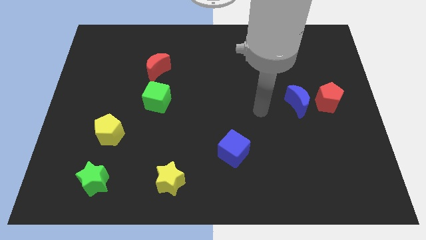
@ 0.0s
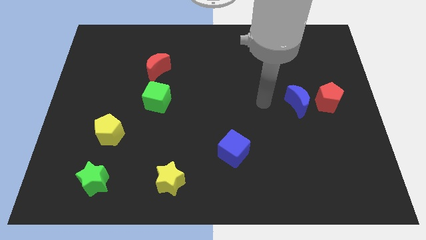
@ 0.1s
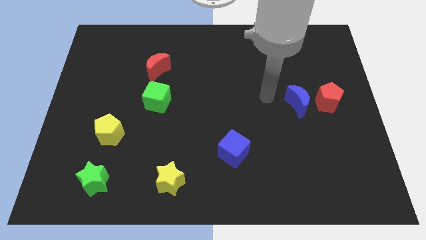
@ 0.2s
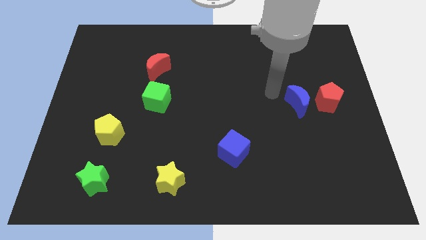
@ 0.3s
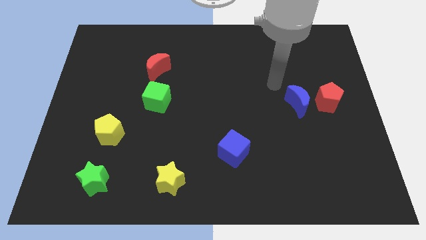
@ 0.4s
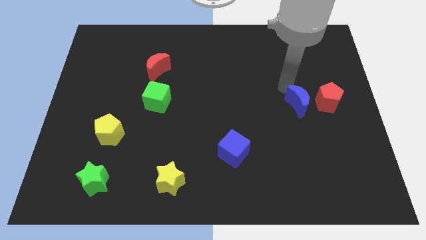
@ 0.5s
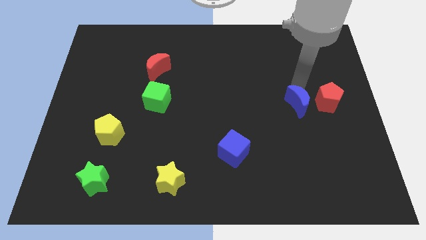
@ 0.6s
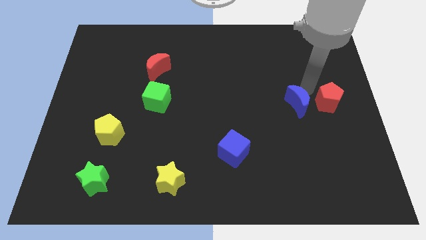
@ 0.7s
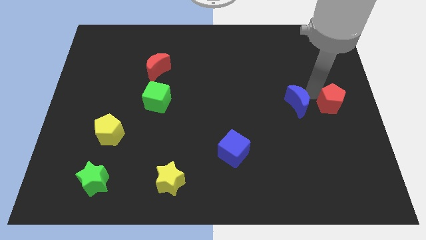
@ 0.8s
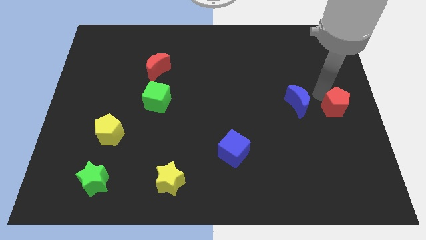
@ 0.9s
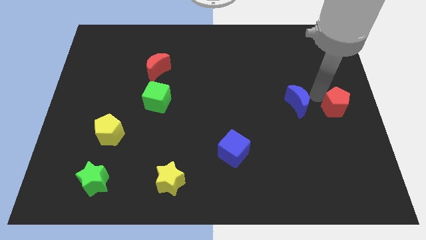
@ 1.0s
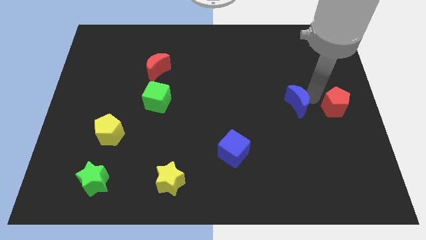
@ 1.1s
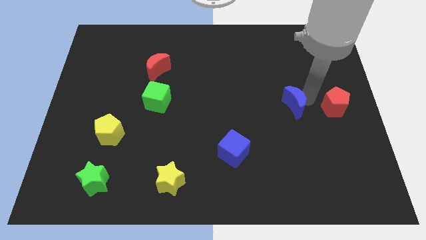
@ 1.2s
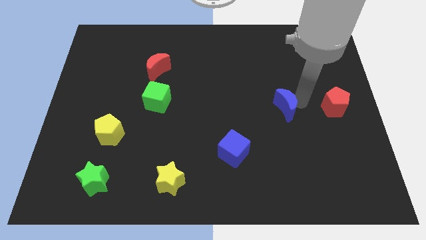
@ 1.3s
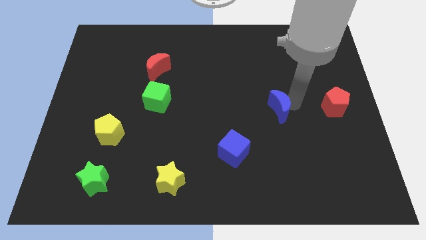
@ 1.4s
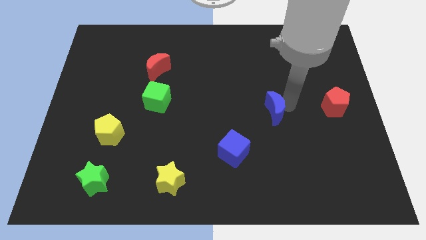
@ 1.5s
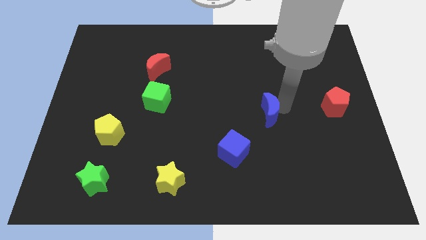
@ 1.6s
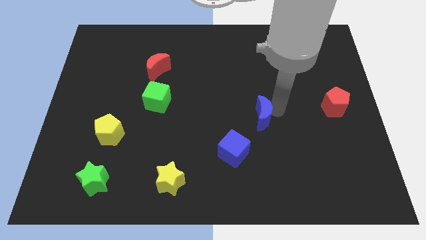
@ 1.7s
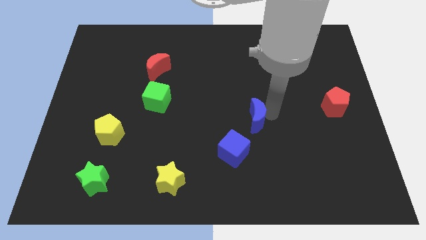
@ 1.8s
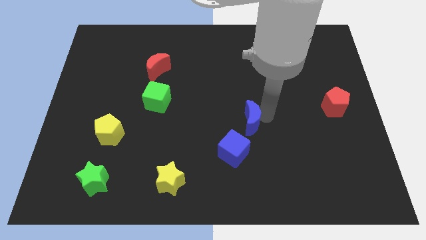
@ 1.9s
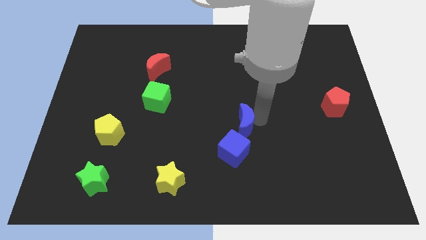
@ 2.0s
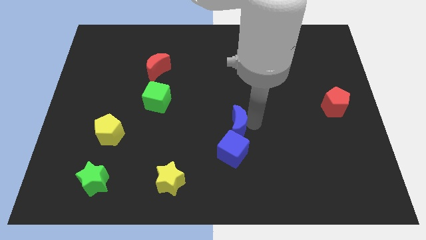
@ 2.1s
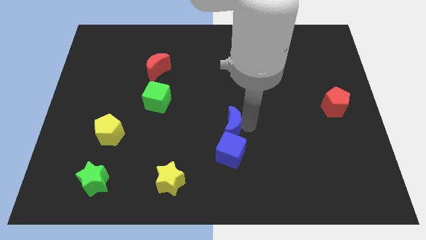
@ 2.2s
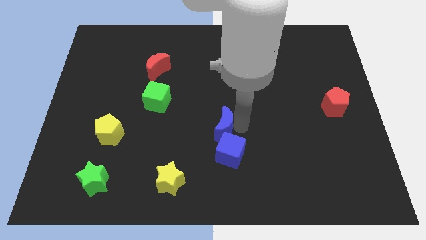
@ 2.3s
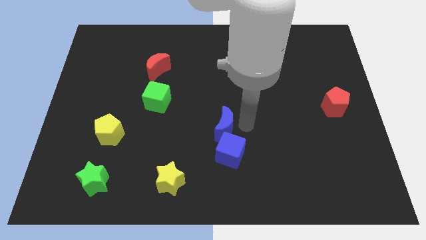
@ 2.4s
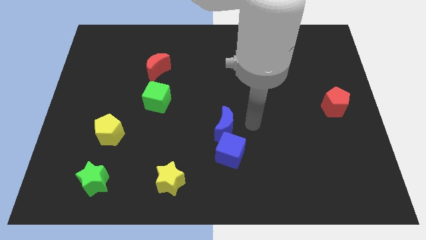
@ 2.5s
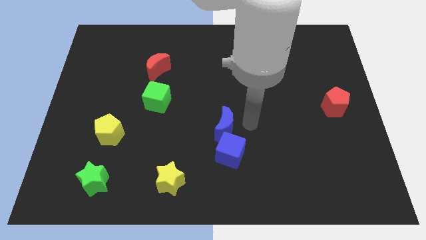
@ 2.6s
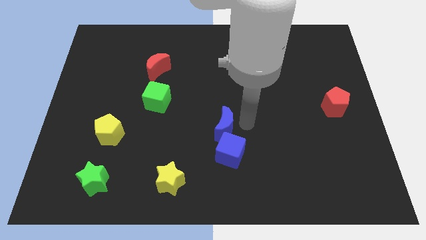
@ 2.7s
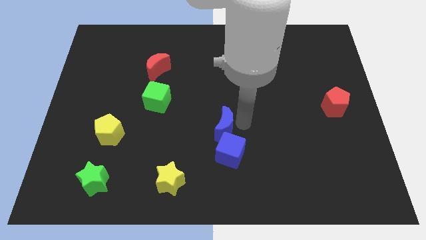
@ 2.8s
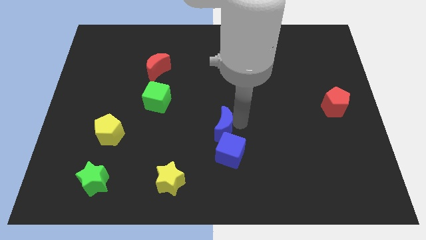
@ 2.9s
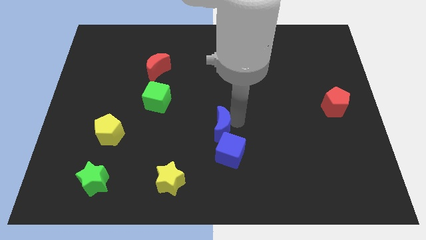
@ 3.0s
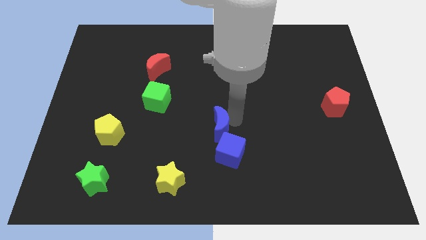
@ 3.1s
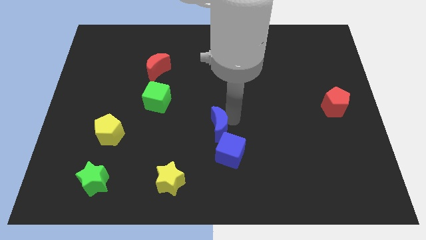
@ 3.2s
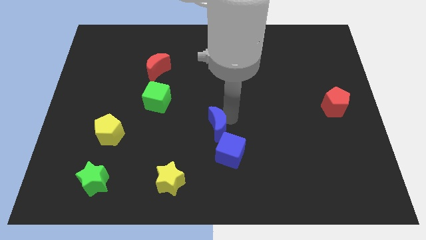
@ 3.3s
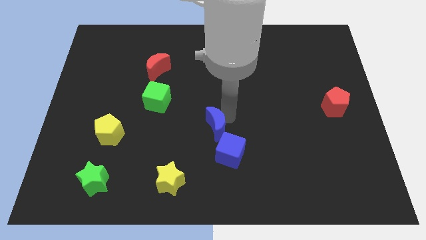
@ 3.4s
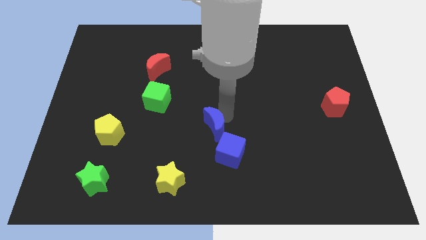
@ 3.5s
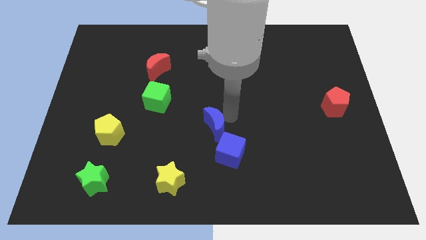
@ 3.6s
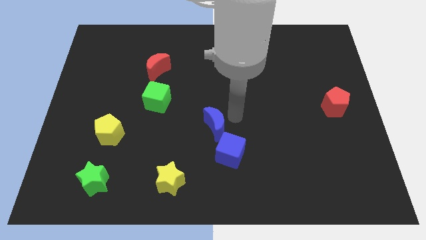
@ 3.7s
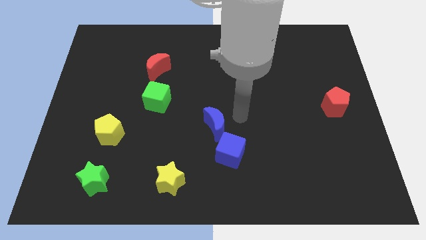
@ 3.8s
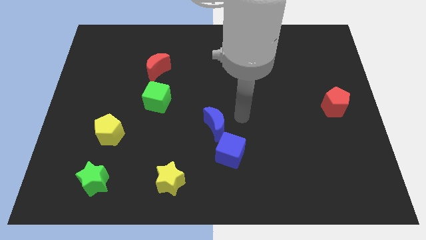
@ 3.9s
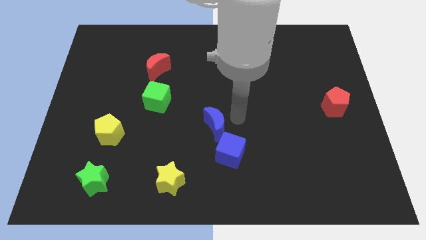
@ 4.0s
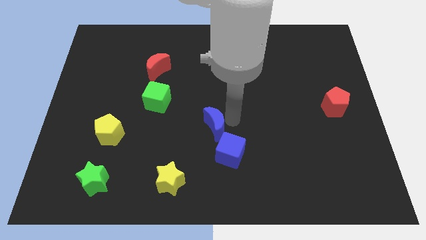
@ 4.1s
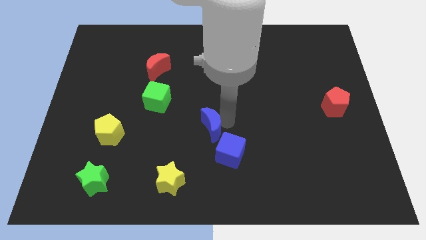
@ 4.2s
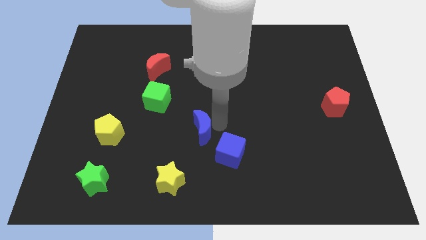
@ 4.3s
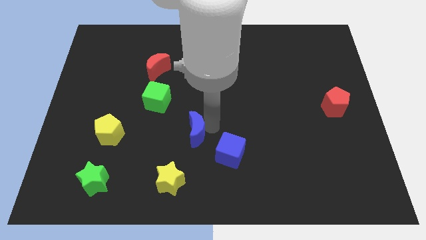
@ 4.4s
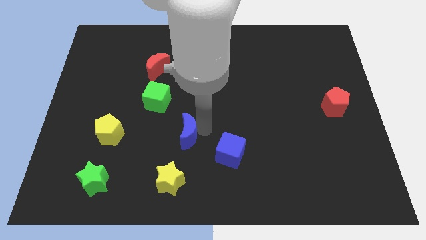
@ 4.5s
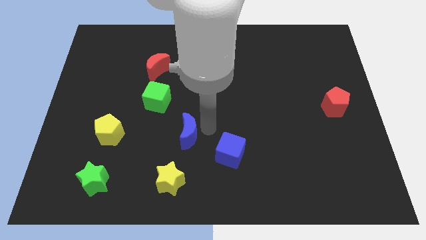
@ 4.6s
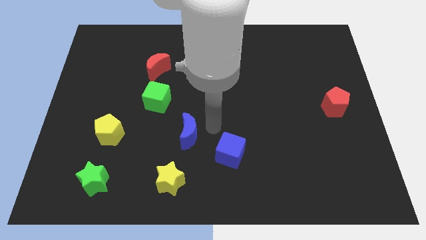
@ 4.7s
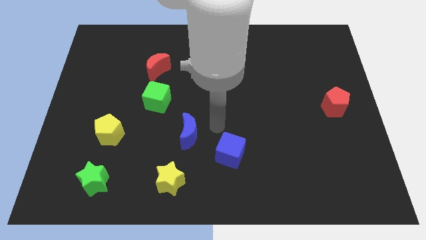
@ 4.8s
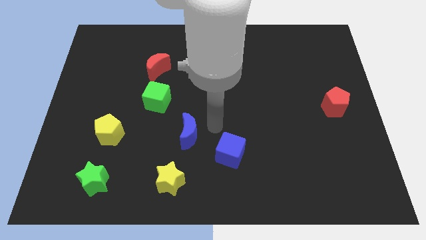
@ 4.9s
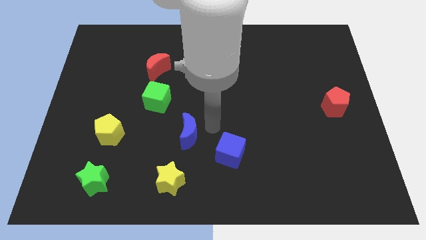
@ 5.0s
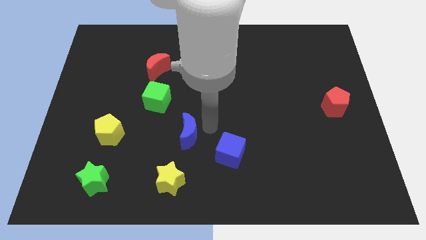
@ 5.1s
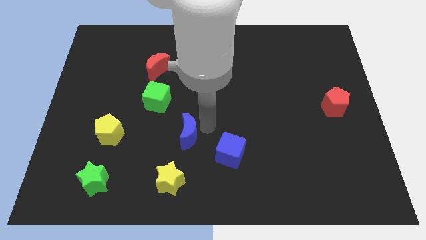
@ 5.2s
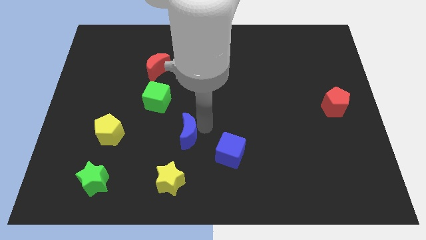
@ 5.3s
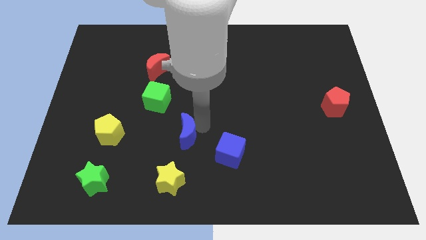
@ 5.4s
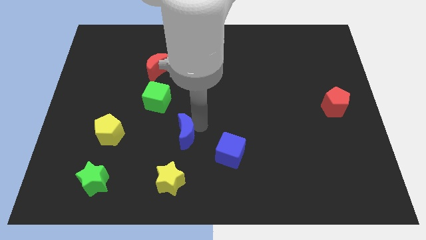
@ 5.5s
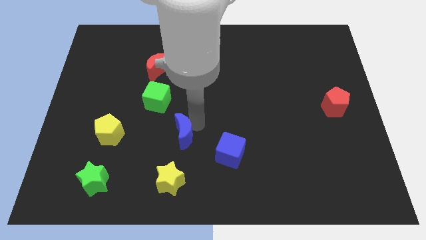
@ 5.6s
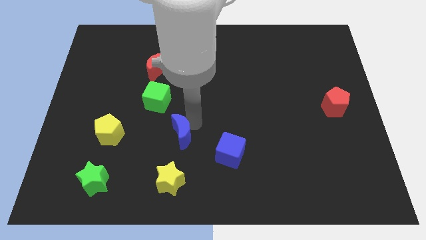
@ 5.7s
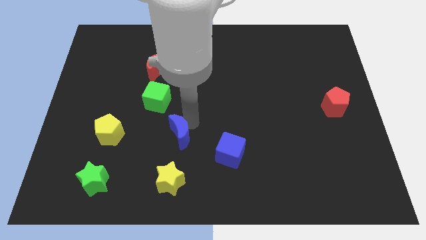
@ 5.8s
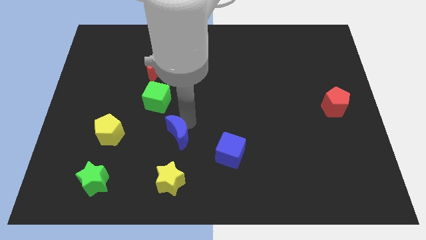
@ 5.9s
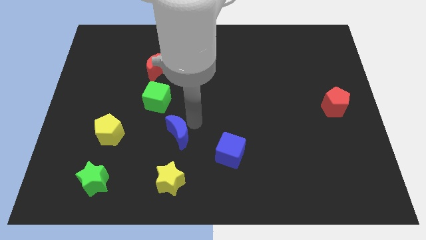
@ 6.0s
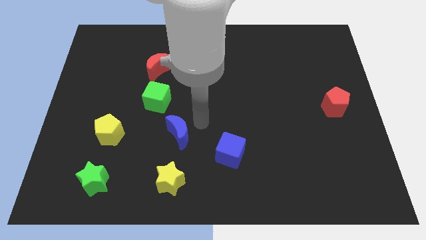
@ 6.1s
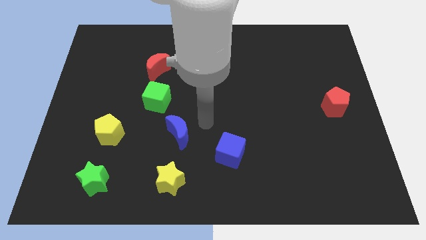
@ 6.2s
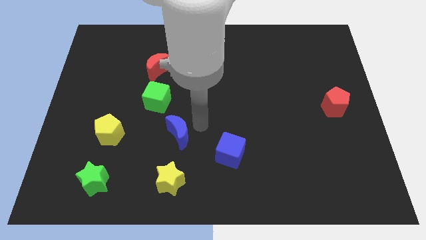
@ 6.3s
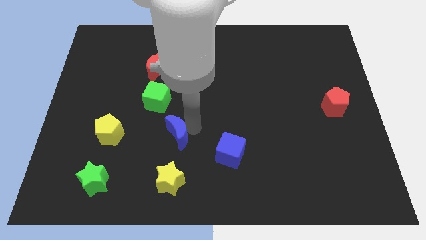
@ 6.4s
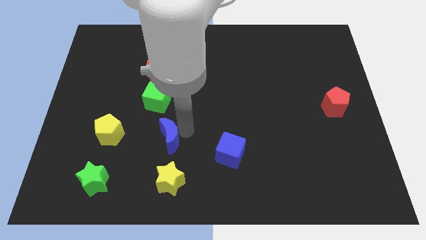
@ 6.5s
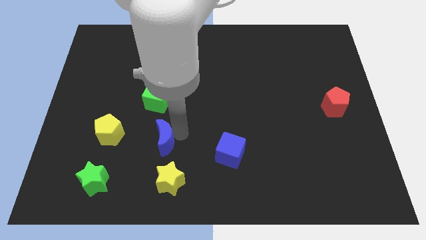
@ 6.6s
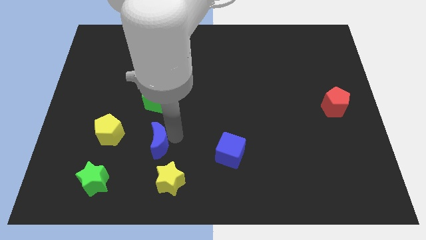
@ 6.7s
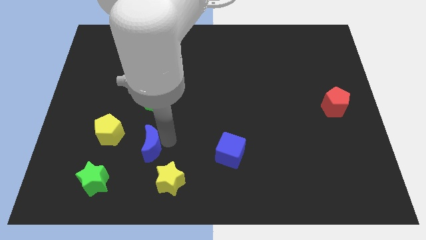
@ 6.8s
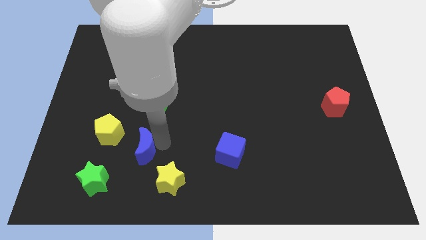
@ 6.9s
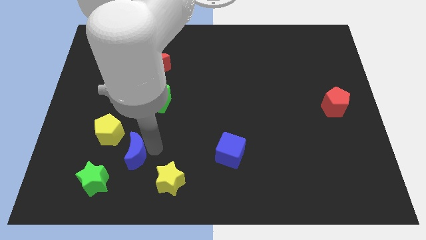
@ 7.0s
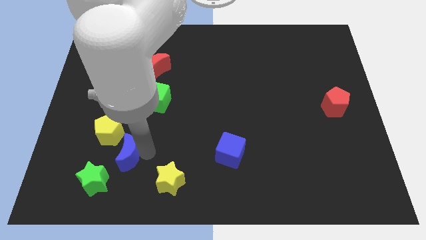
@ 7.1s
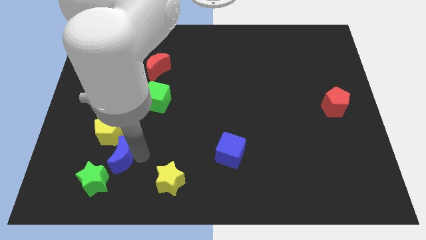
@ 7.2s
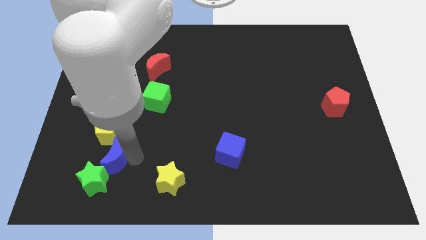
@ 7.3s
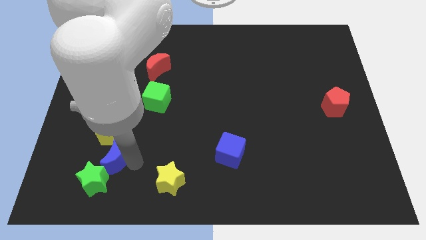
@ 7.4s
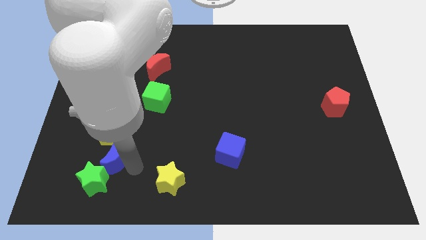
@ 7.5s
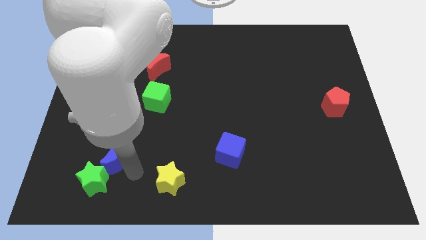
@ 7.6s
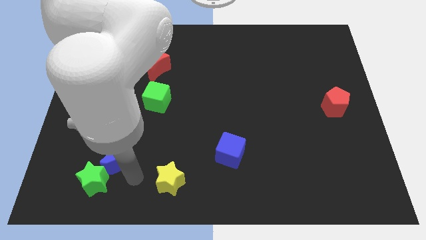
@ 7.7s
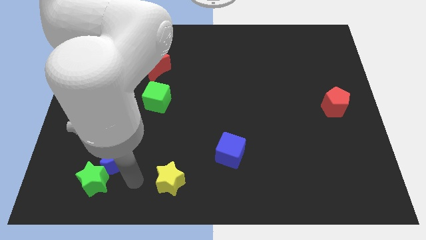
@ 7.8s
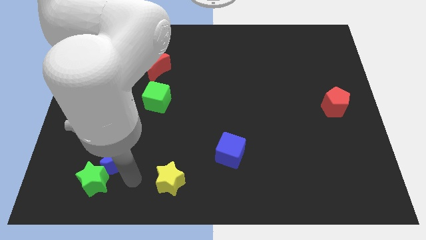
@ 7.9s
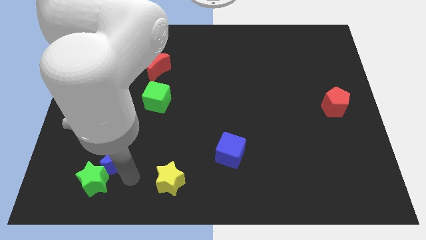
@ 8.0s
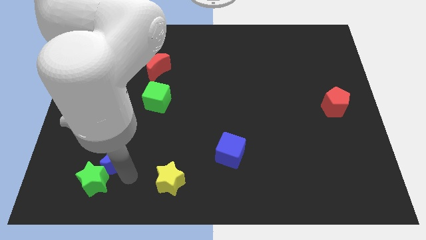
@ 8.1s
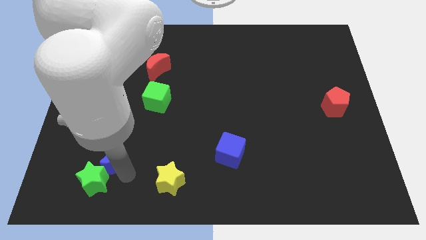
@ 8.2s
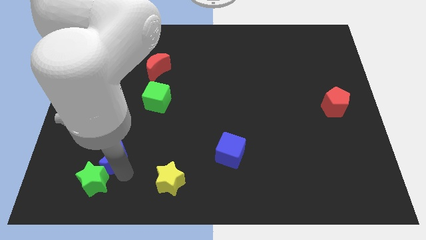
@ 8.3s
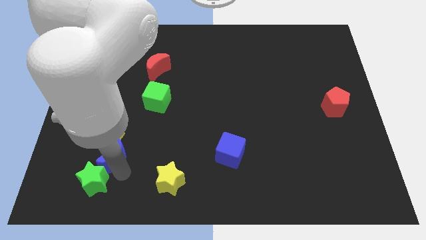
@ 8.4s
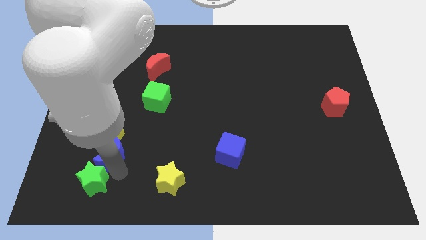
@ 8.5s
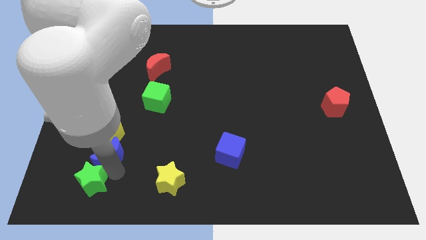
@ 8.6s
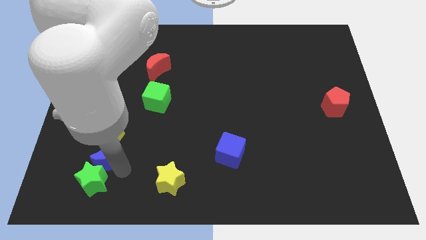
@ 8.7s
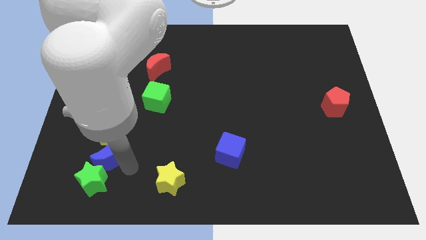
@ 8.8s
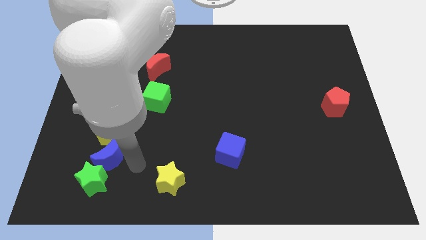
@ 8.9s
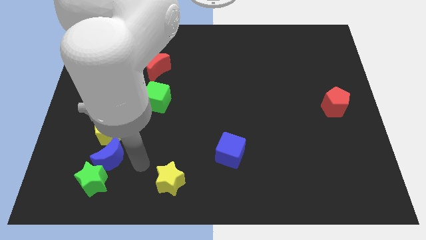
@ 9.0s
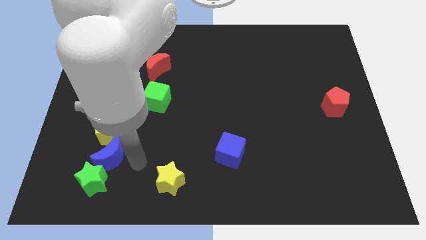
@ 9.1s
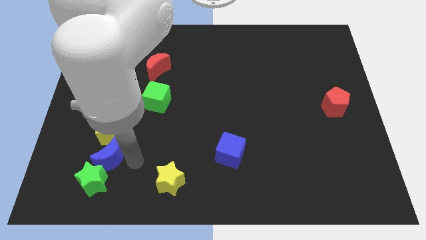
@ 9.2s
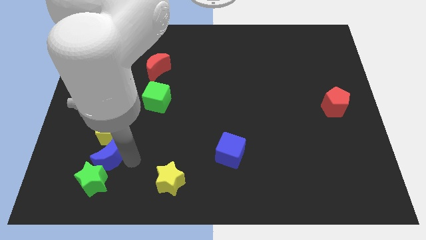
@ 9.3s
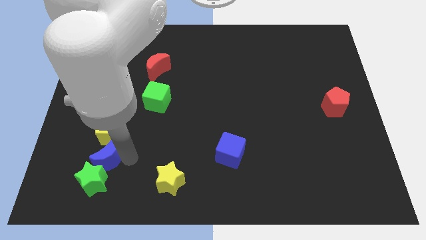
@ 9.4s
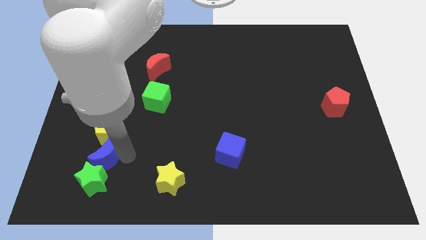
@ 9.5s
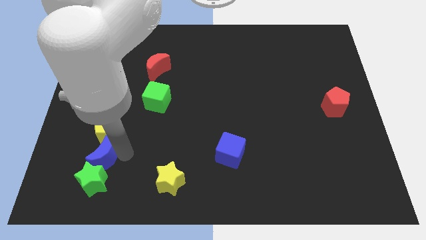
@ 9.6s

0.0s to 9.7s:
slide the blue moon diagonally down and to the left of the yellow pentagon
